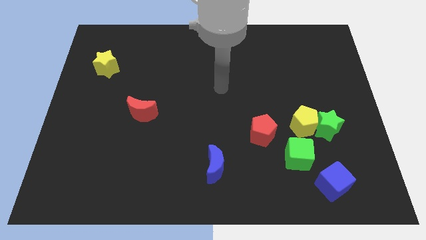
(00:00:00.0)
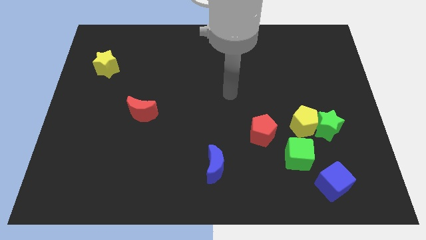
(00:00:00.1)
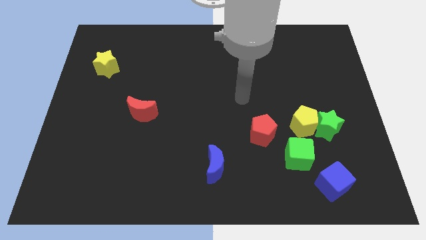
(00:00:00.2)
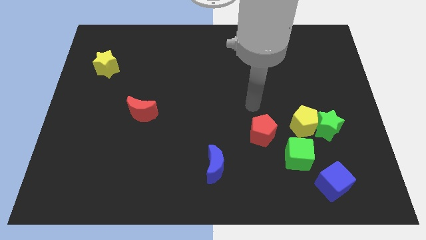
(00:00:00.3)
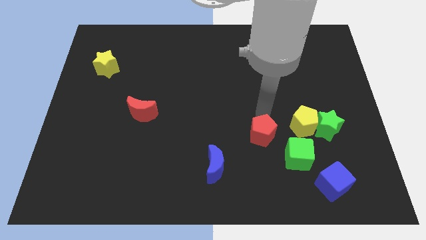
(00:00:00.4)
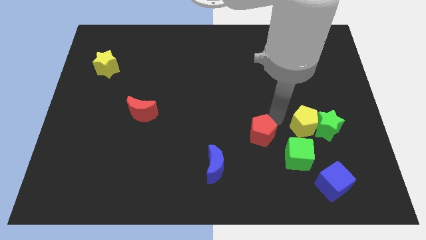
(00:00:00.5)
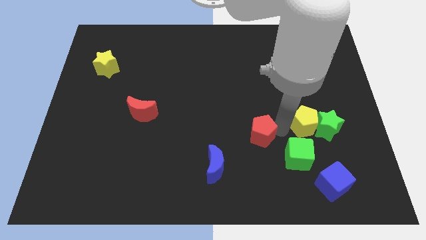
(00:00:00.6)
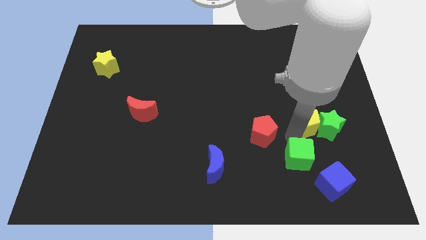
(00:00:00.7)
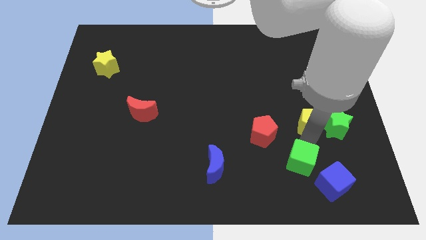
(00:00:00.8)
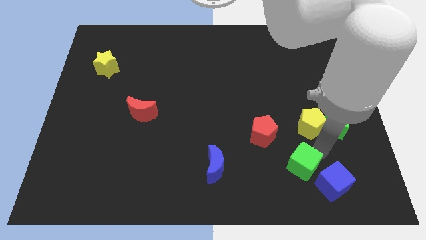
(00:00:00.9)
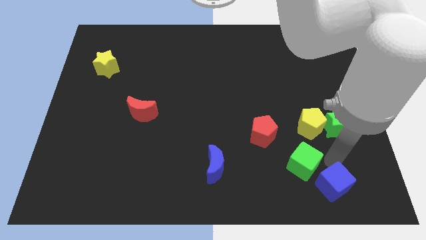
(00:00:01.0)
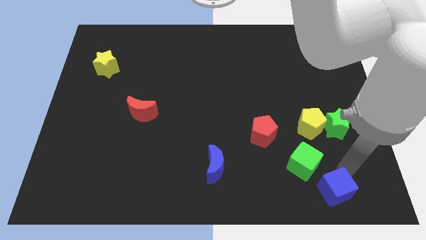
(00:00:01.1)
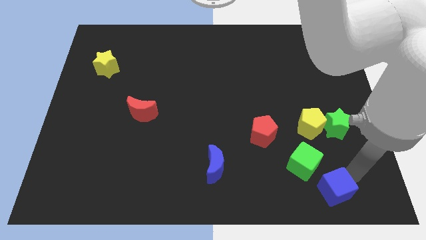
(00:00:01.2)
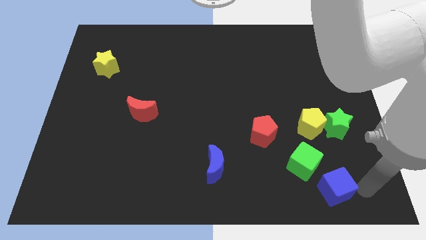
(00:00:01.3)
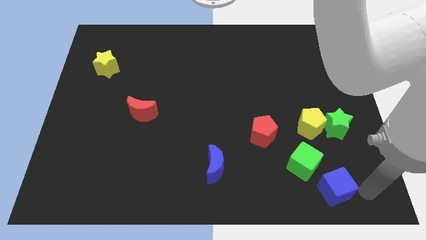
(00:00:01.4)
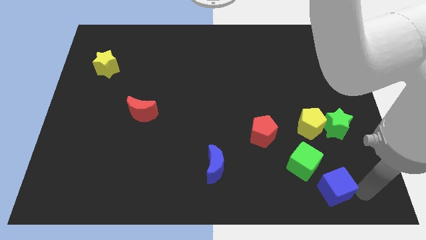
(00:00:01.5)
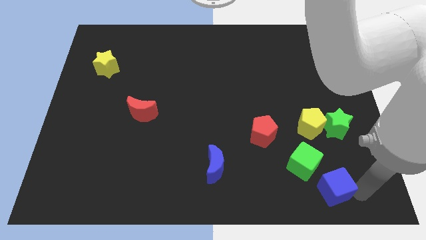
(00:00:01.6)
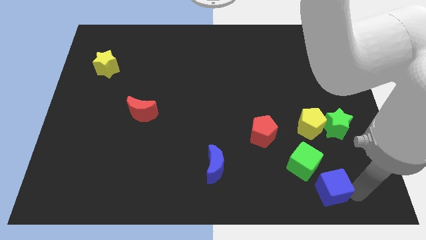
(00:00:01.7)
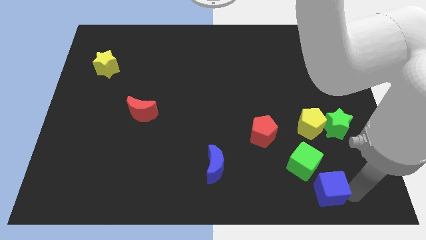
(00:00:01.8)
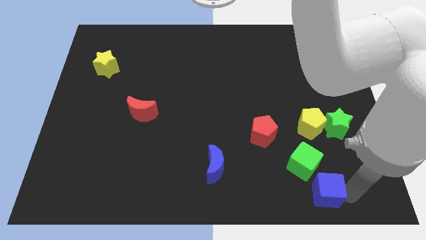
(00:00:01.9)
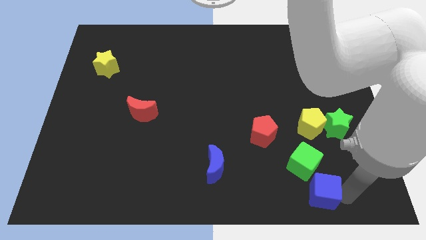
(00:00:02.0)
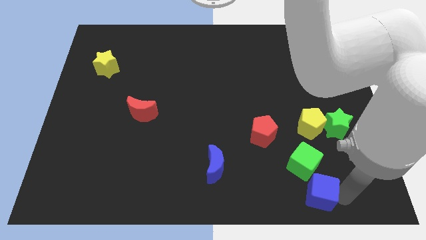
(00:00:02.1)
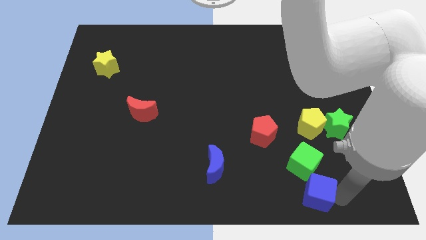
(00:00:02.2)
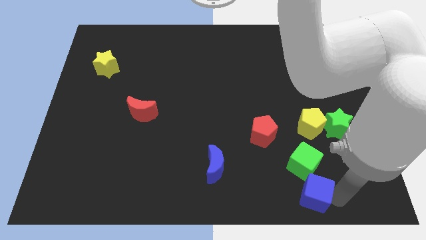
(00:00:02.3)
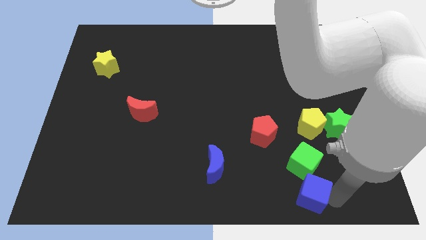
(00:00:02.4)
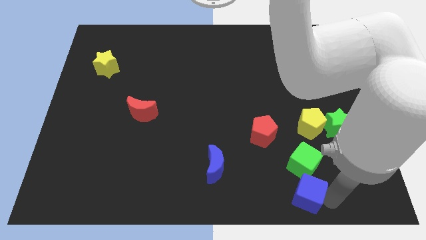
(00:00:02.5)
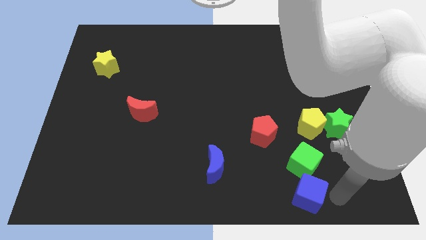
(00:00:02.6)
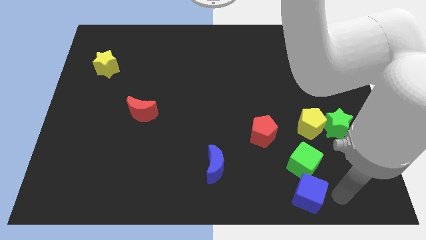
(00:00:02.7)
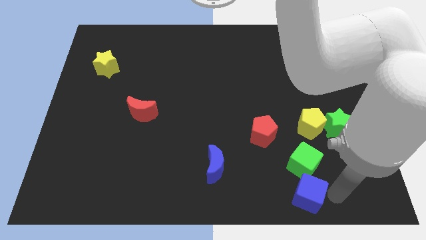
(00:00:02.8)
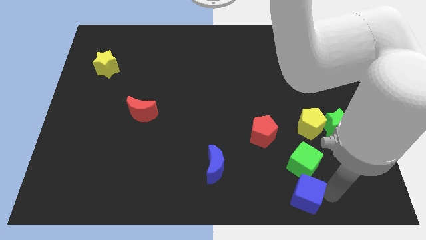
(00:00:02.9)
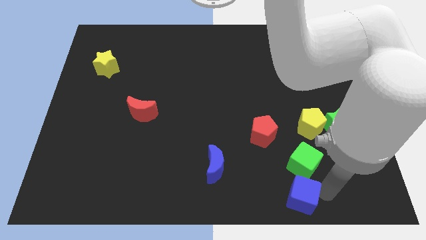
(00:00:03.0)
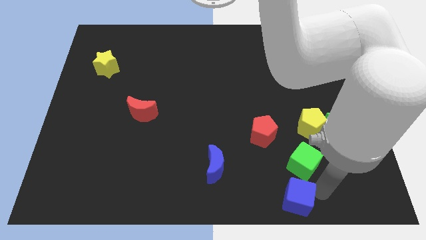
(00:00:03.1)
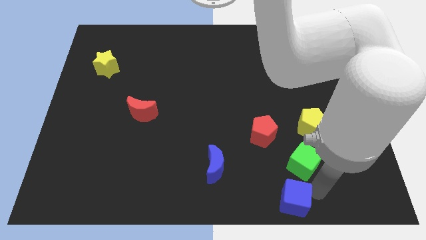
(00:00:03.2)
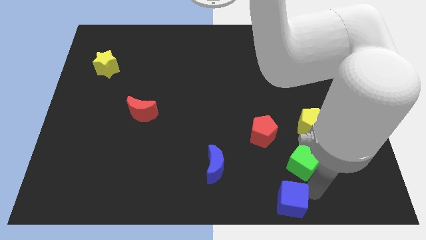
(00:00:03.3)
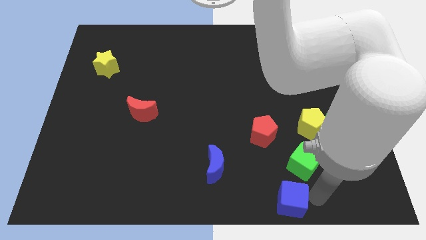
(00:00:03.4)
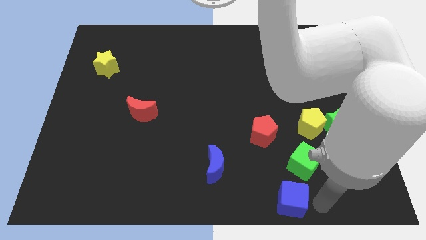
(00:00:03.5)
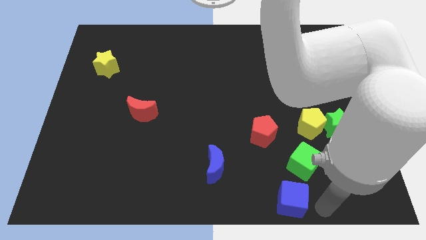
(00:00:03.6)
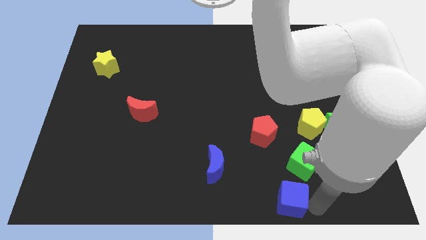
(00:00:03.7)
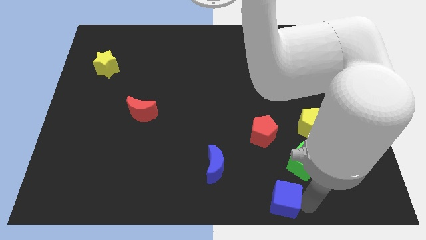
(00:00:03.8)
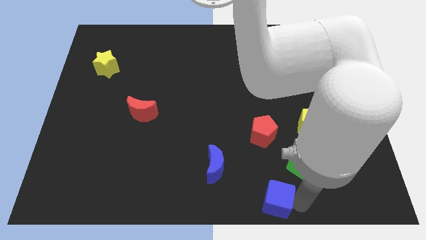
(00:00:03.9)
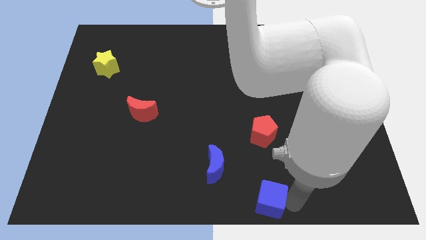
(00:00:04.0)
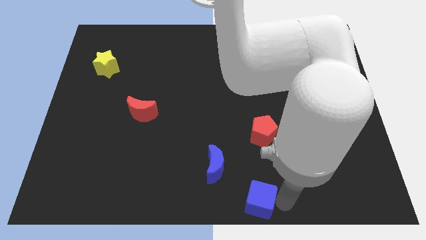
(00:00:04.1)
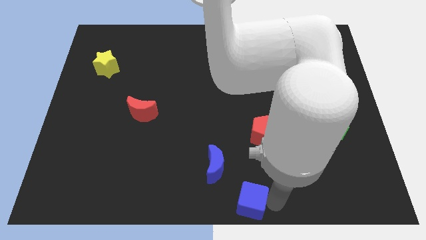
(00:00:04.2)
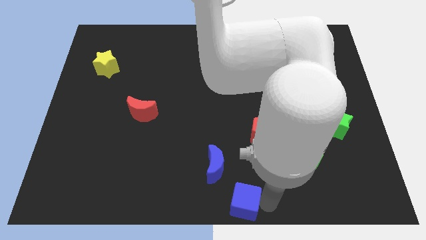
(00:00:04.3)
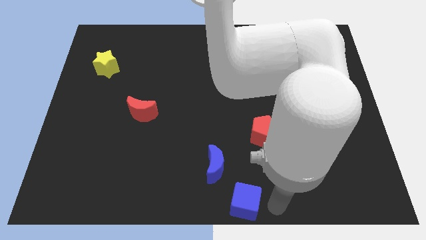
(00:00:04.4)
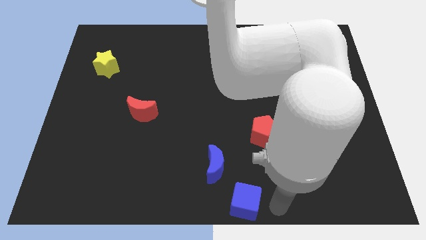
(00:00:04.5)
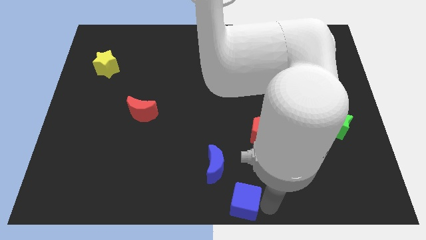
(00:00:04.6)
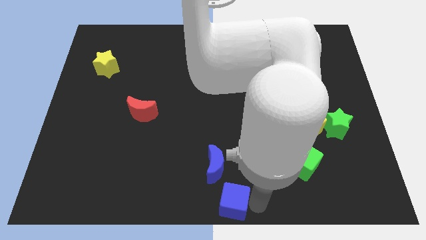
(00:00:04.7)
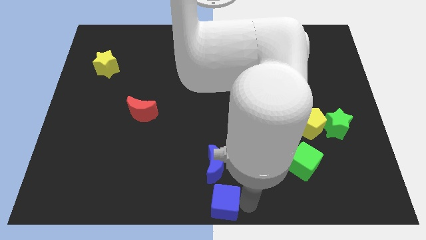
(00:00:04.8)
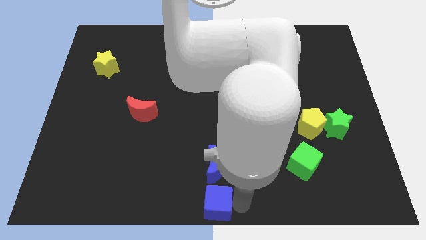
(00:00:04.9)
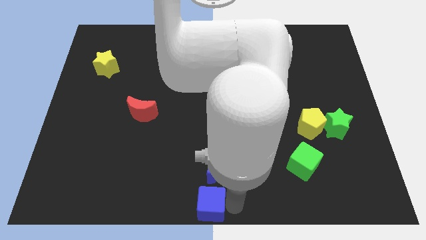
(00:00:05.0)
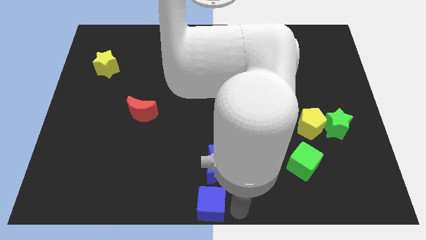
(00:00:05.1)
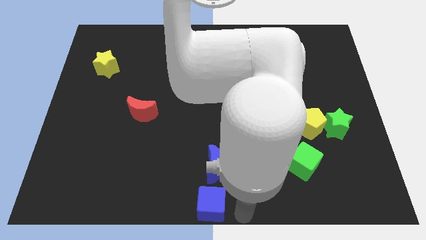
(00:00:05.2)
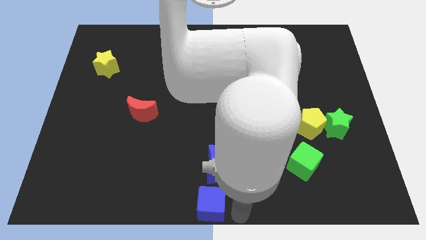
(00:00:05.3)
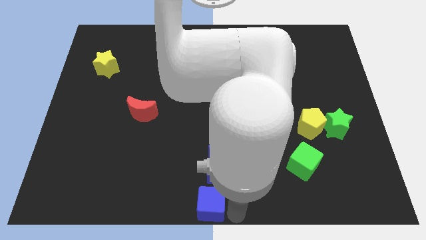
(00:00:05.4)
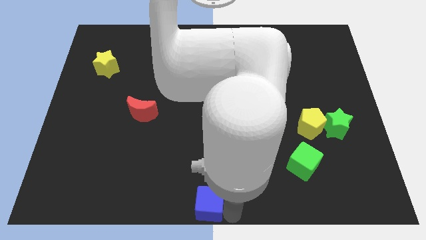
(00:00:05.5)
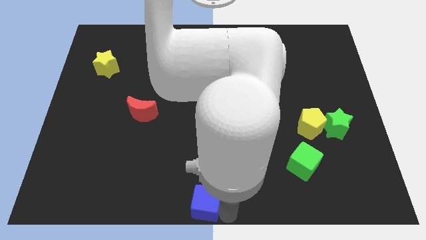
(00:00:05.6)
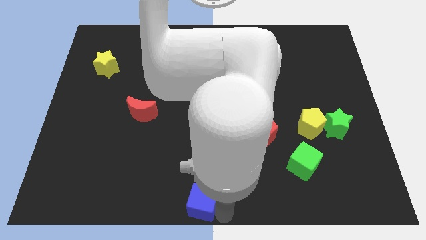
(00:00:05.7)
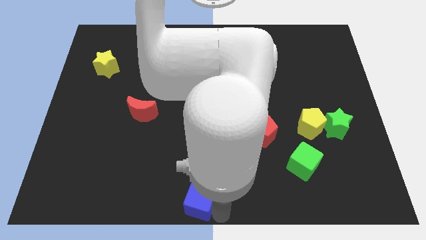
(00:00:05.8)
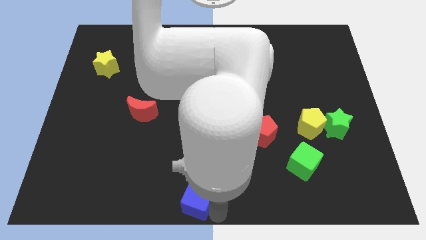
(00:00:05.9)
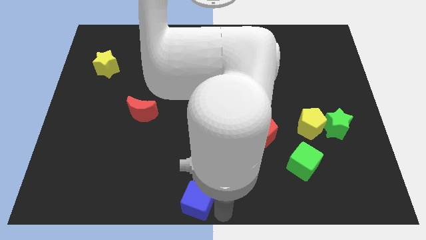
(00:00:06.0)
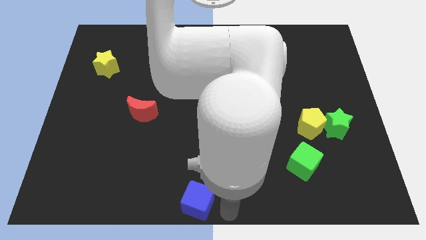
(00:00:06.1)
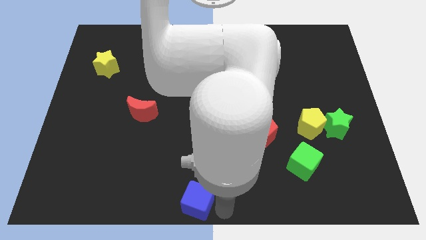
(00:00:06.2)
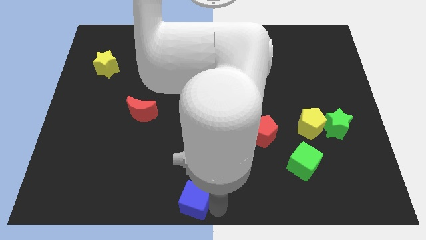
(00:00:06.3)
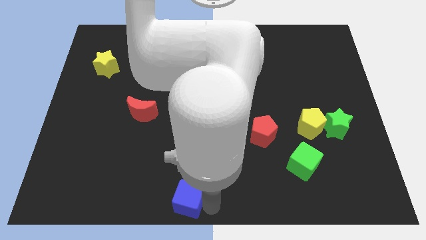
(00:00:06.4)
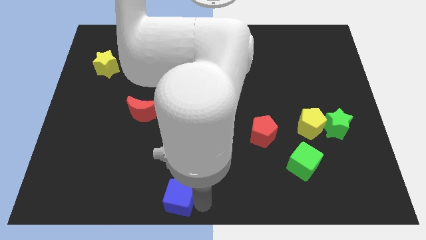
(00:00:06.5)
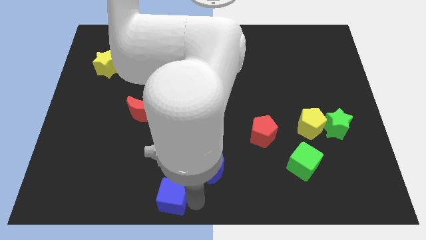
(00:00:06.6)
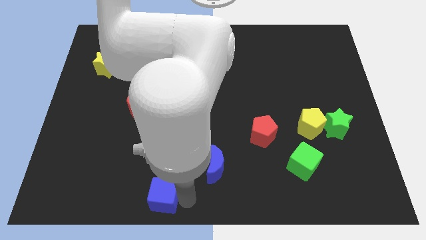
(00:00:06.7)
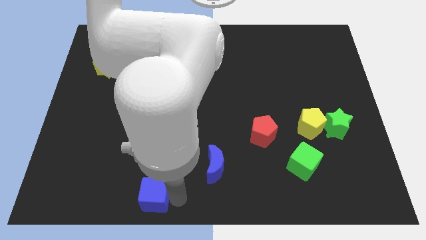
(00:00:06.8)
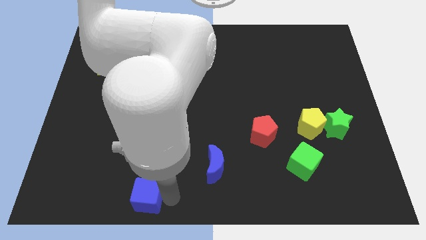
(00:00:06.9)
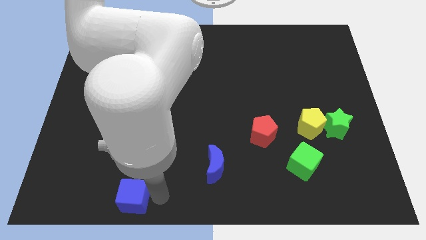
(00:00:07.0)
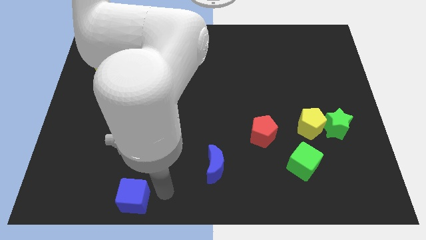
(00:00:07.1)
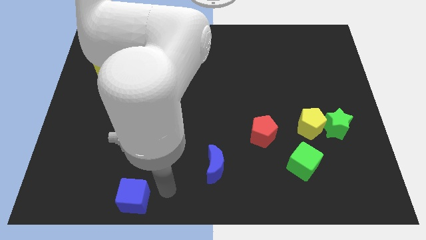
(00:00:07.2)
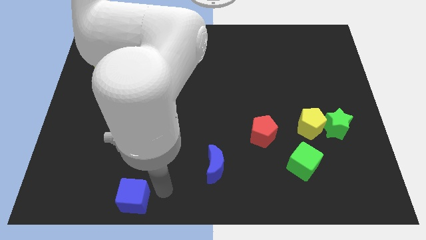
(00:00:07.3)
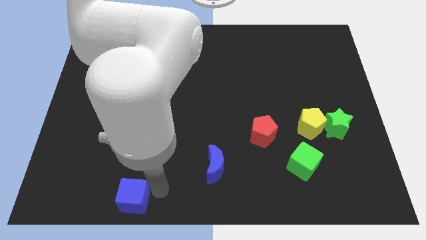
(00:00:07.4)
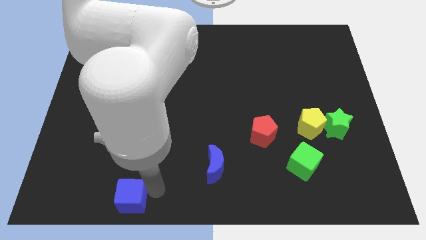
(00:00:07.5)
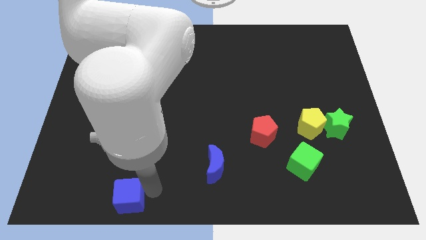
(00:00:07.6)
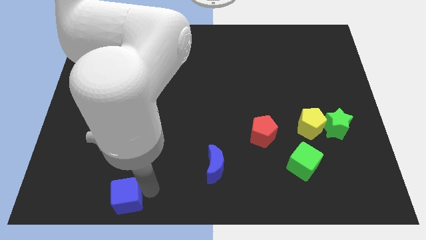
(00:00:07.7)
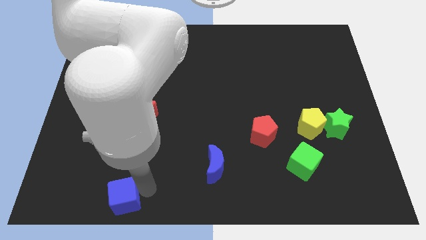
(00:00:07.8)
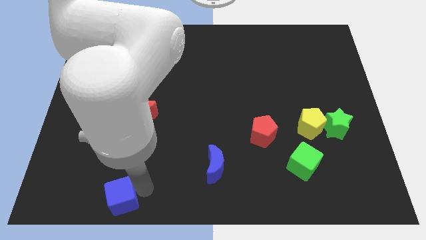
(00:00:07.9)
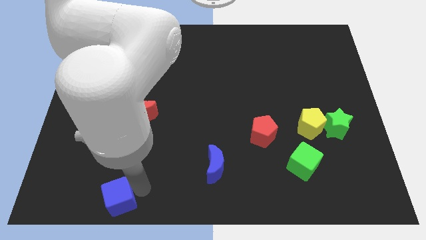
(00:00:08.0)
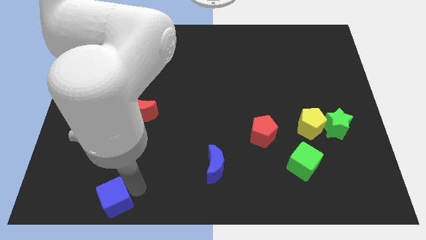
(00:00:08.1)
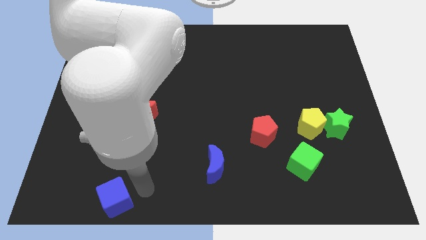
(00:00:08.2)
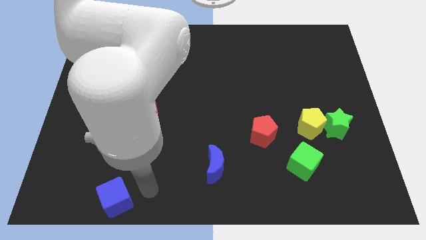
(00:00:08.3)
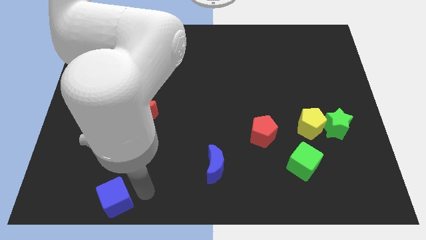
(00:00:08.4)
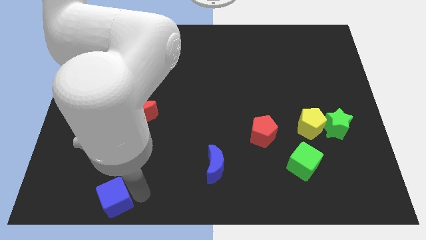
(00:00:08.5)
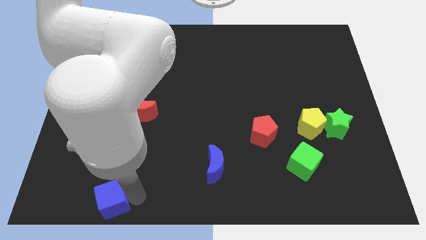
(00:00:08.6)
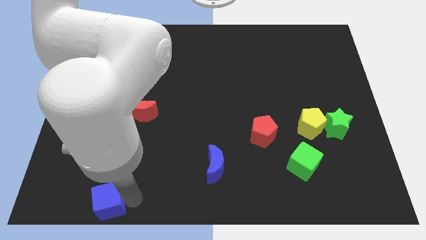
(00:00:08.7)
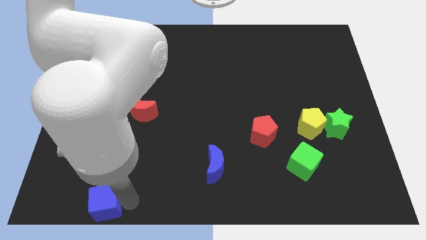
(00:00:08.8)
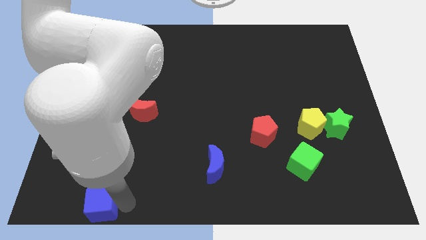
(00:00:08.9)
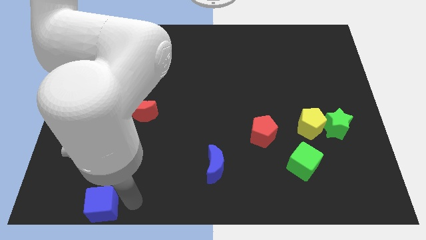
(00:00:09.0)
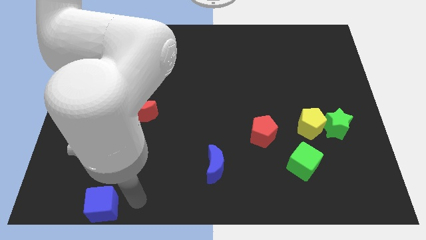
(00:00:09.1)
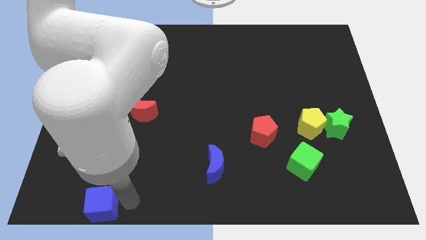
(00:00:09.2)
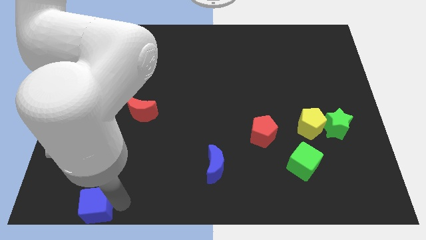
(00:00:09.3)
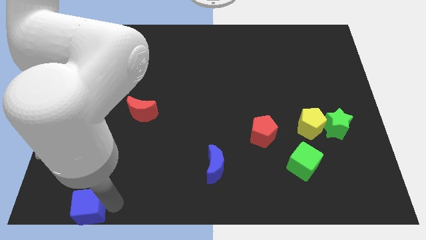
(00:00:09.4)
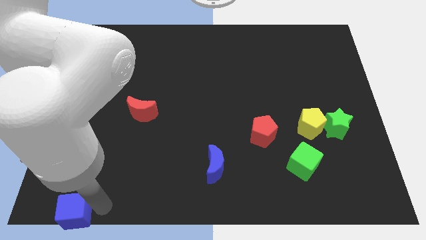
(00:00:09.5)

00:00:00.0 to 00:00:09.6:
slide the blue cube to the bottom left corner
